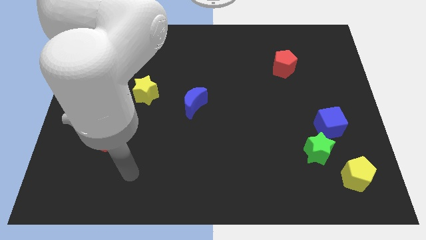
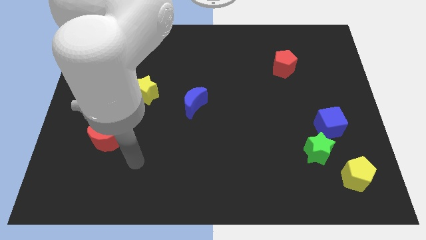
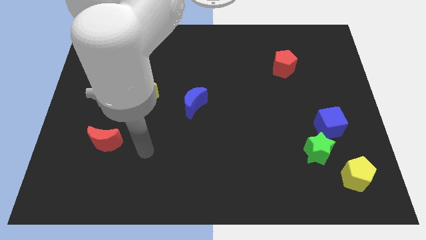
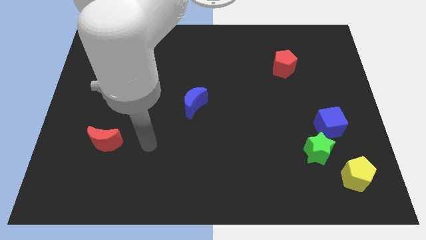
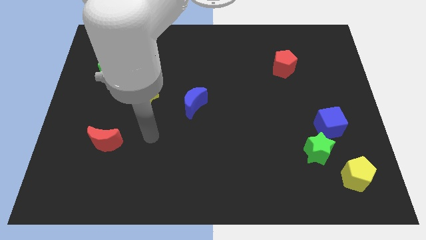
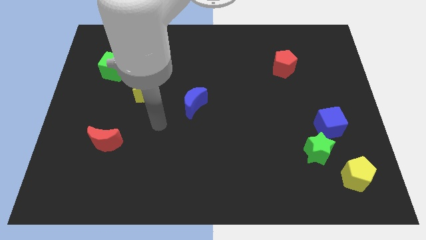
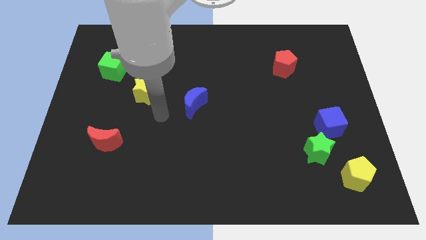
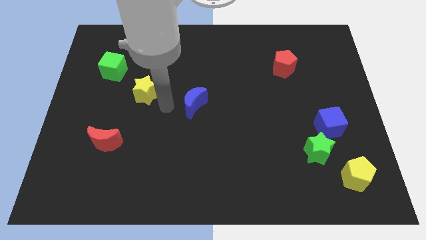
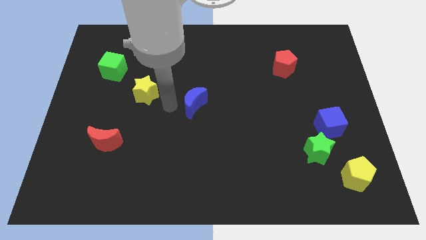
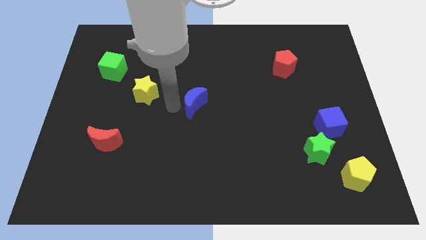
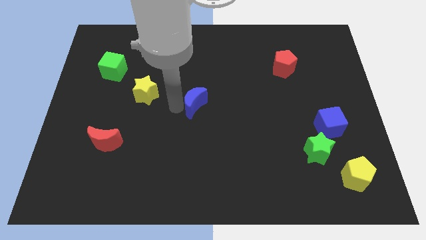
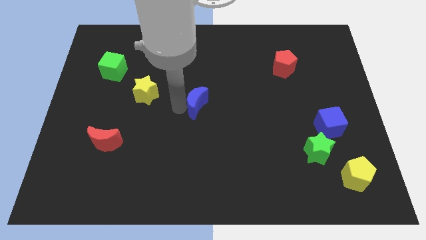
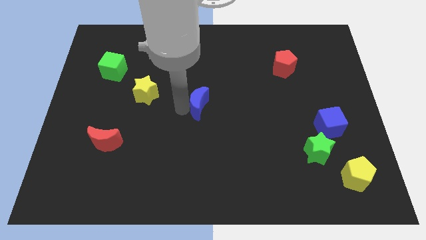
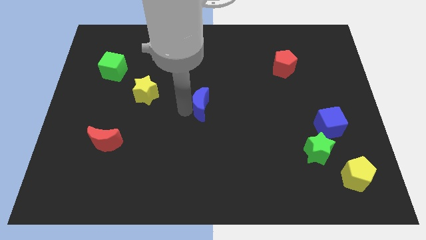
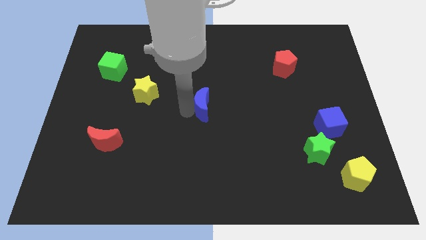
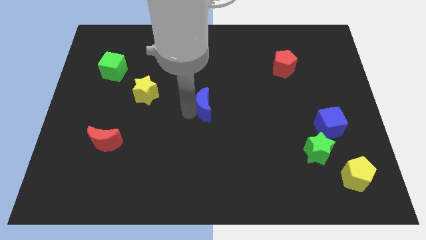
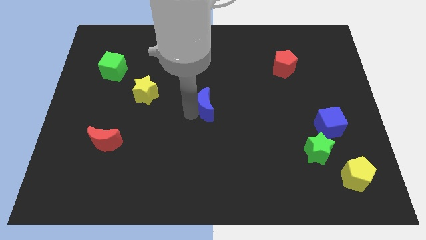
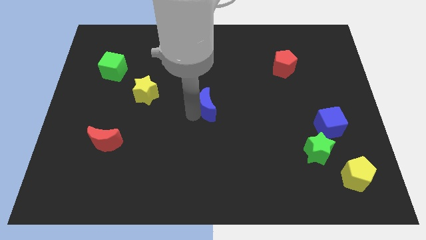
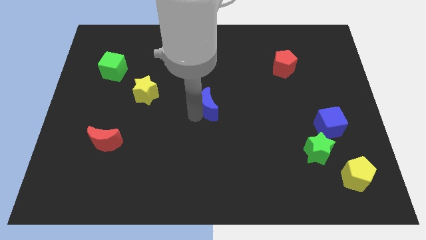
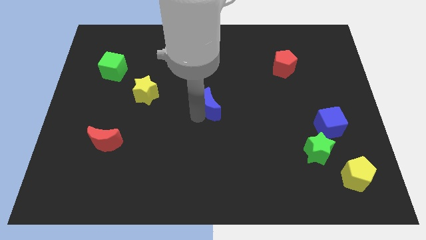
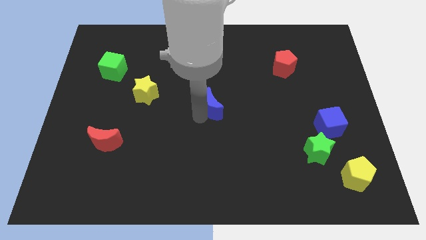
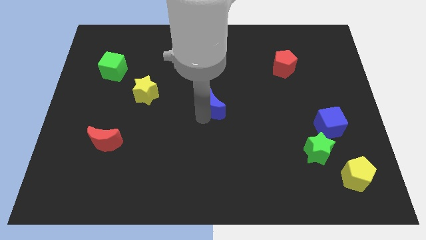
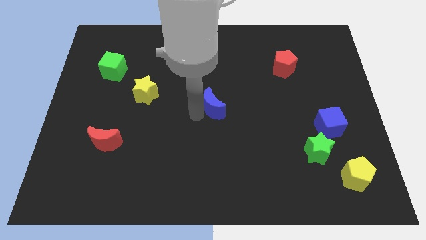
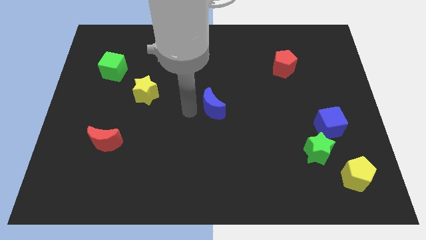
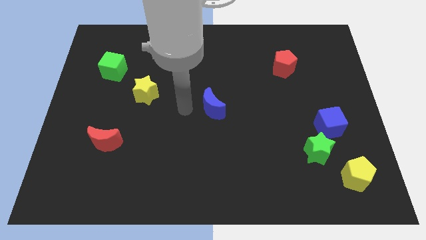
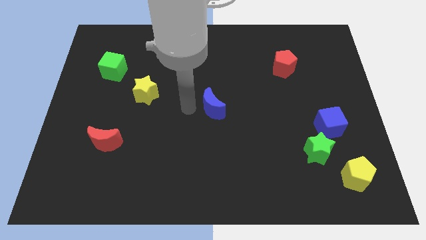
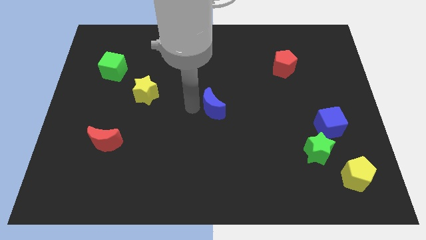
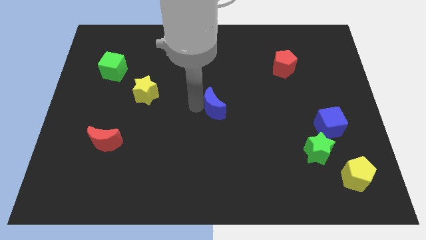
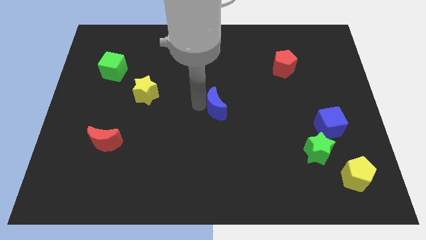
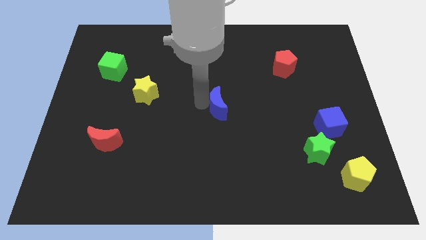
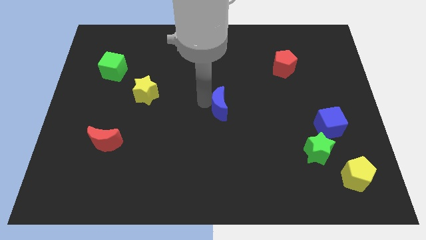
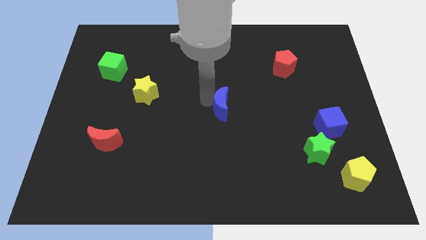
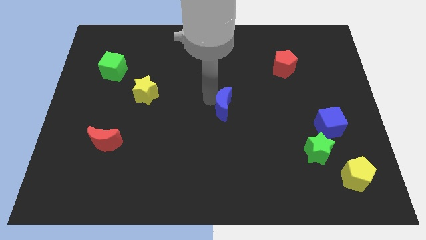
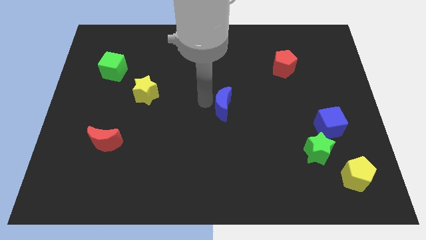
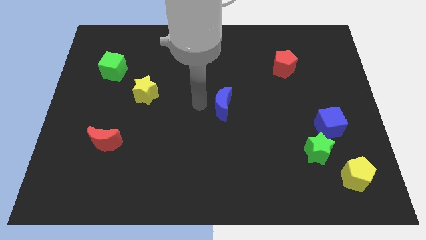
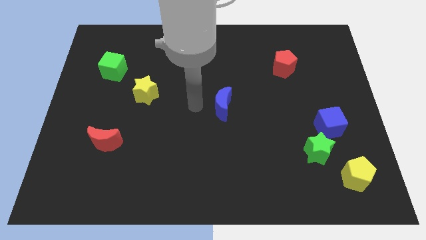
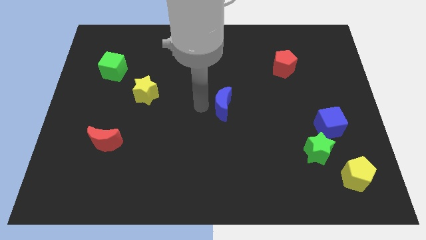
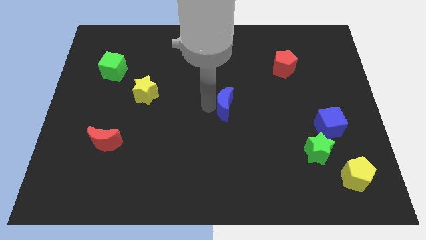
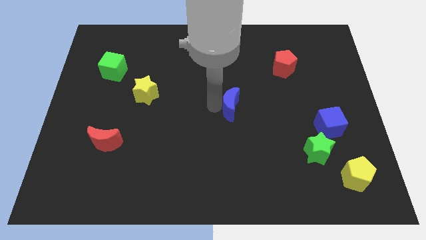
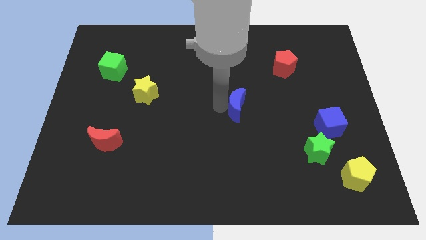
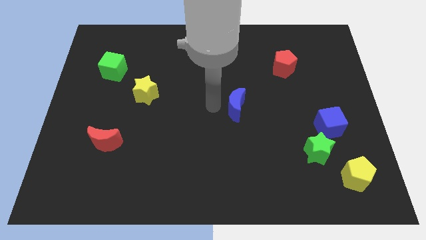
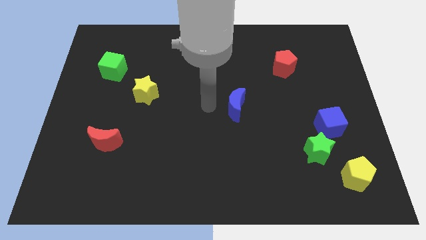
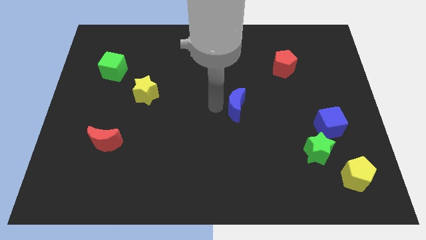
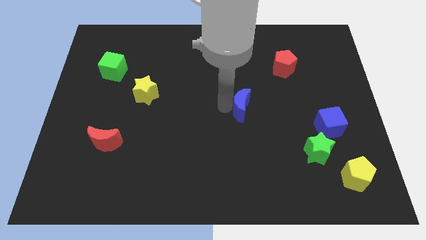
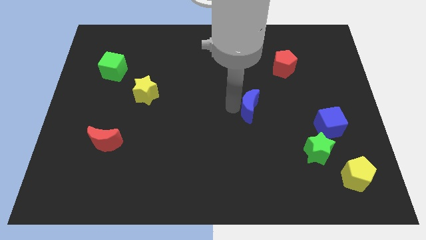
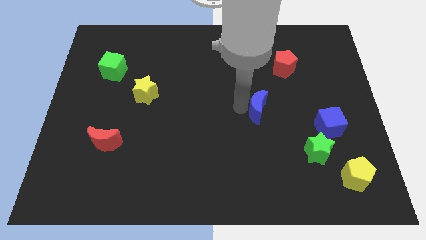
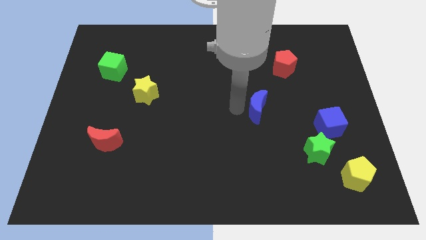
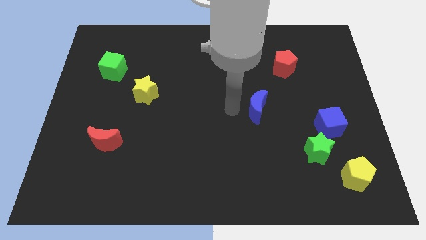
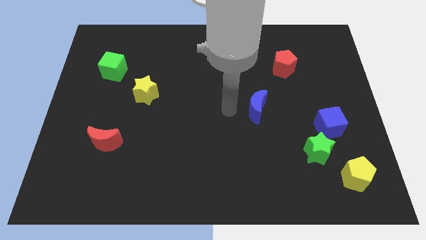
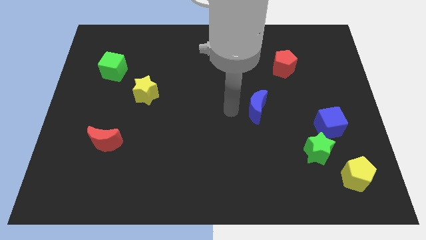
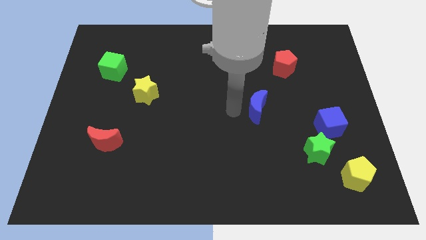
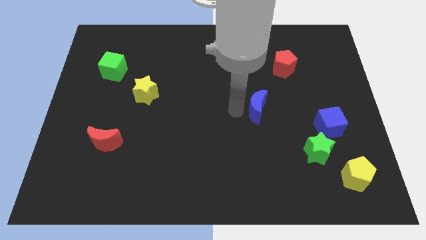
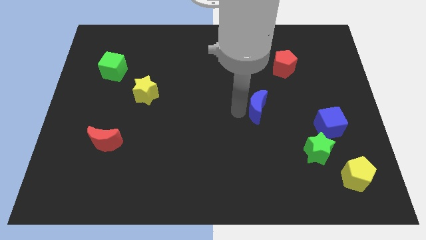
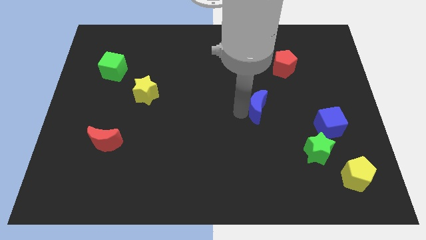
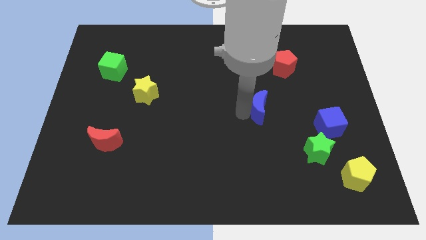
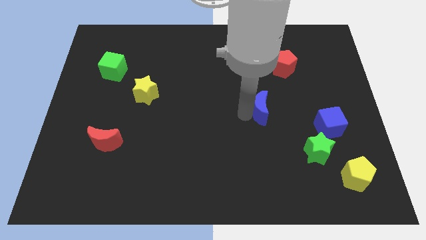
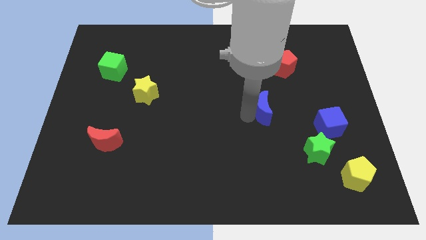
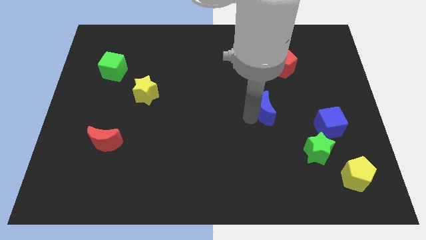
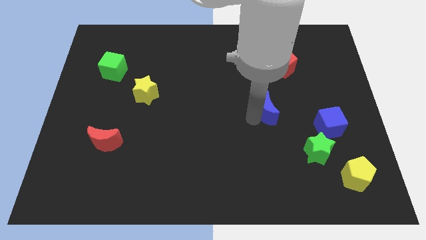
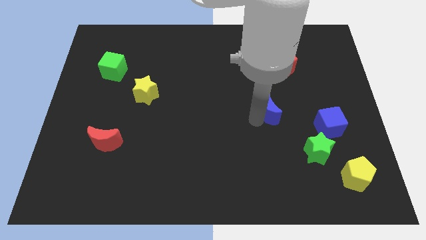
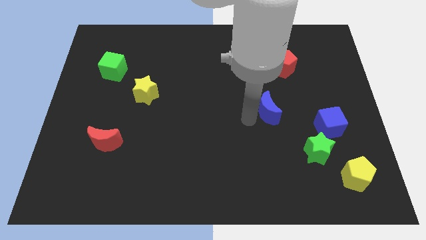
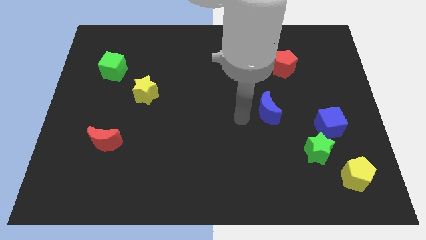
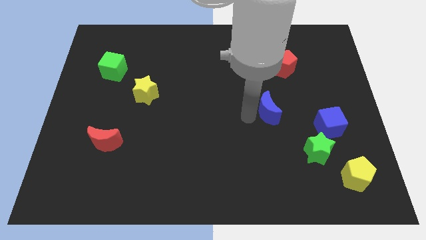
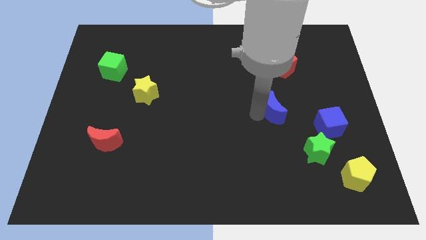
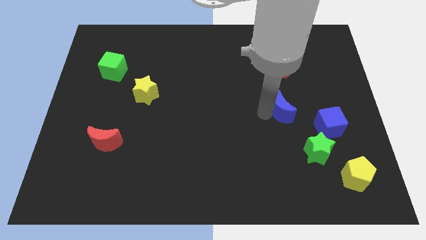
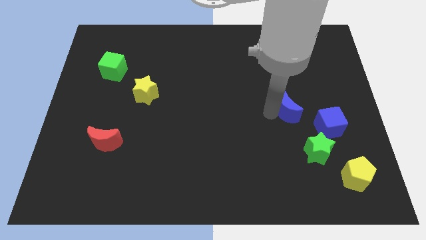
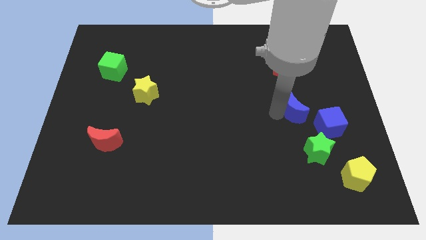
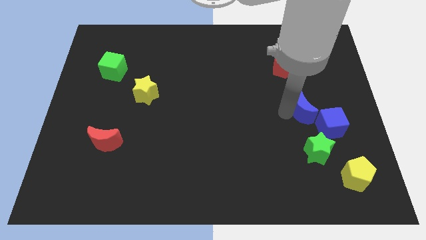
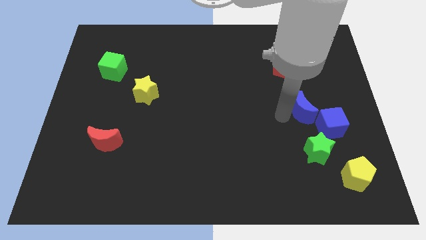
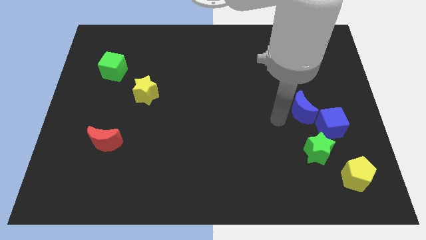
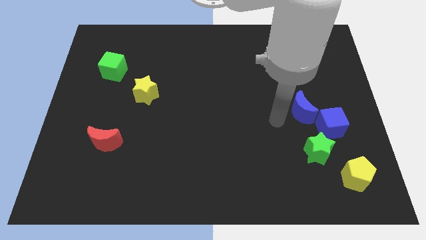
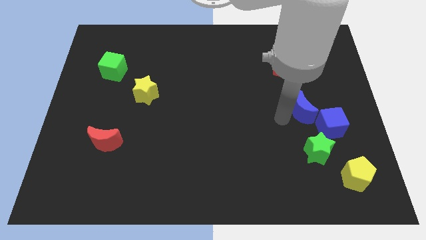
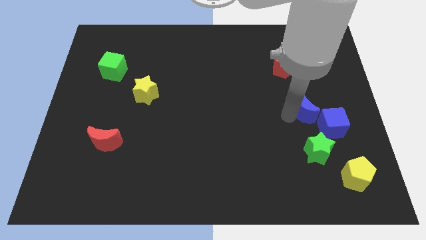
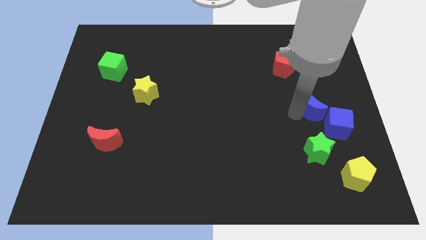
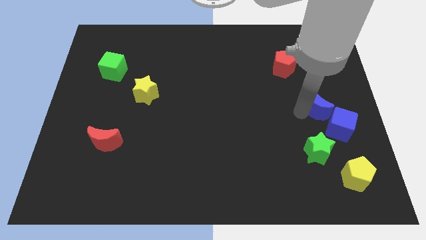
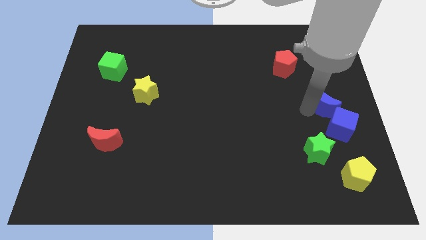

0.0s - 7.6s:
slide the blue moon to the right side
